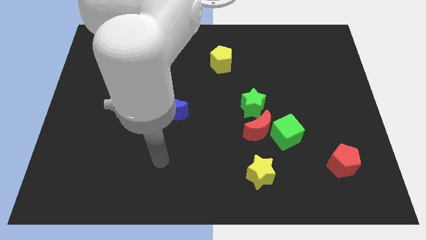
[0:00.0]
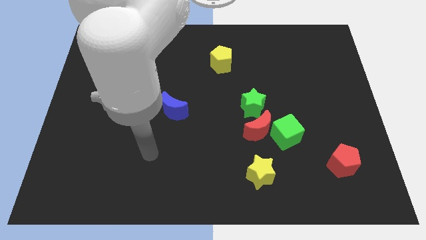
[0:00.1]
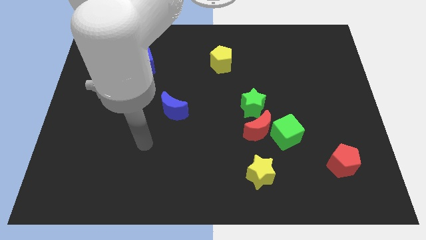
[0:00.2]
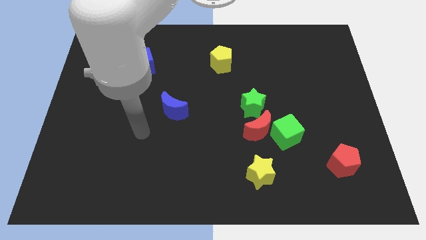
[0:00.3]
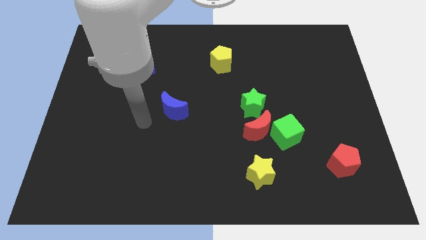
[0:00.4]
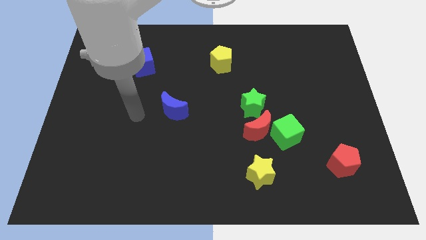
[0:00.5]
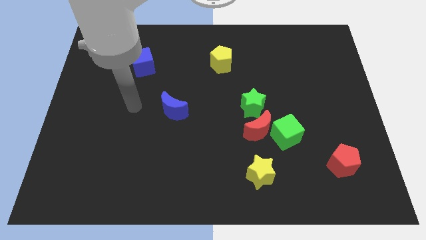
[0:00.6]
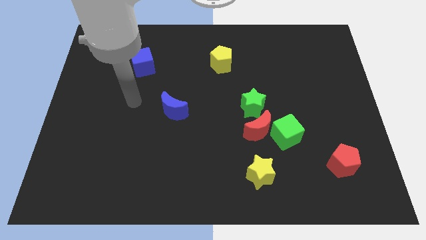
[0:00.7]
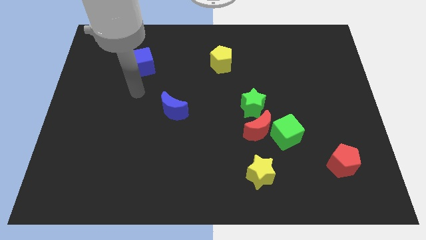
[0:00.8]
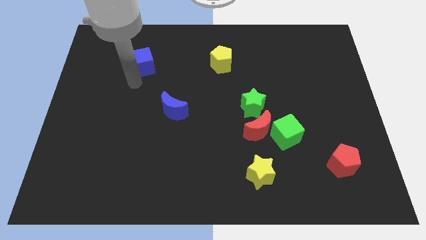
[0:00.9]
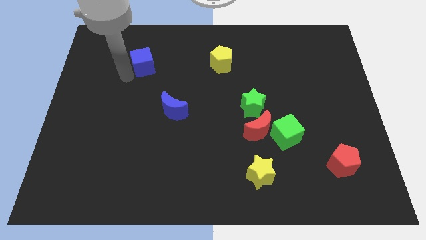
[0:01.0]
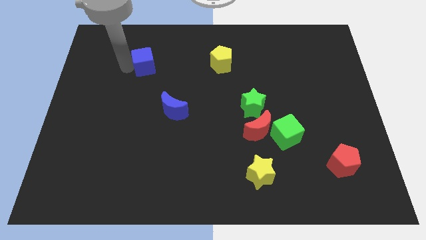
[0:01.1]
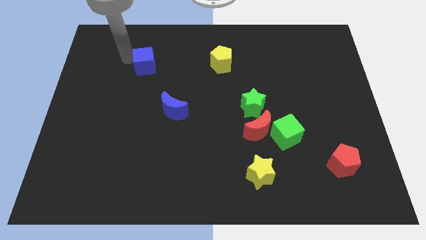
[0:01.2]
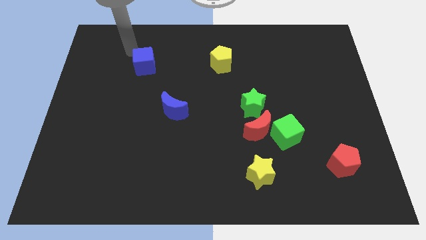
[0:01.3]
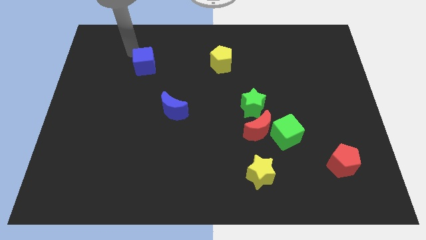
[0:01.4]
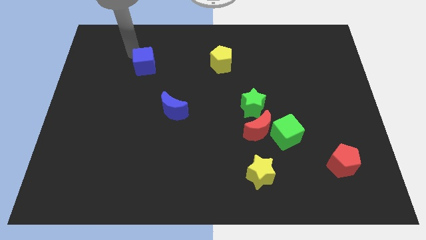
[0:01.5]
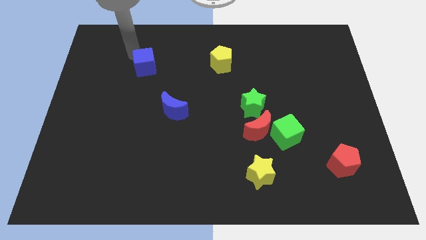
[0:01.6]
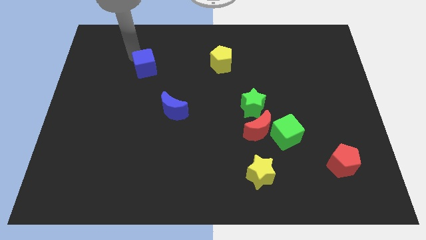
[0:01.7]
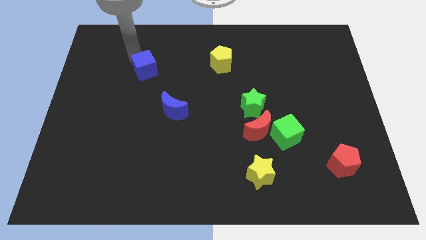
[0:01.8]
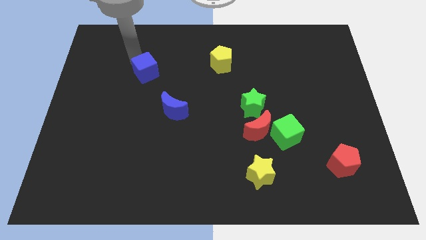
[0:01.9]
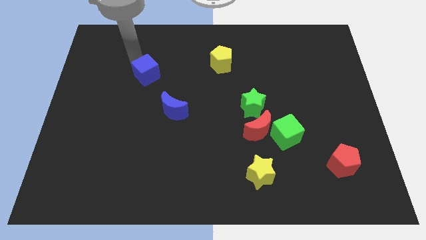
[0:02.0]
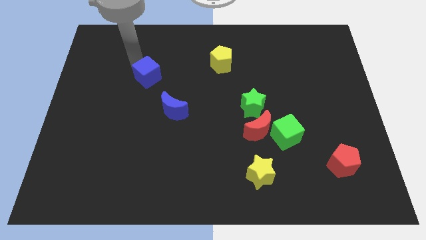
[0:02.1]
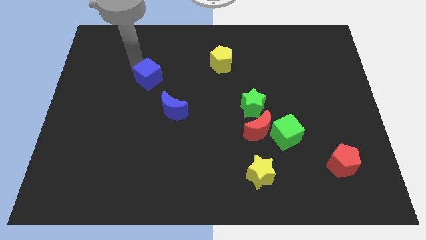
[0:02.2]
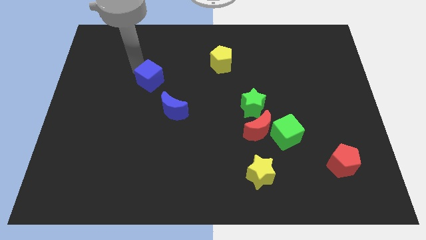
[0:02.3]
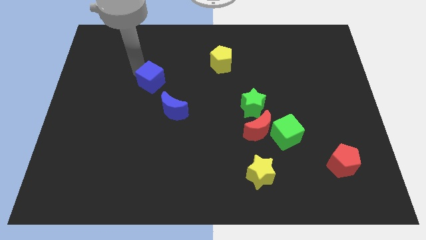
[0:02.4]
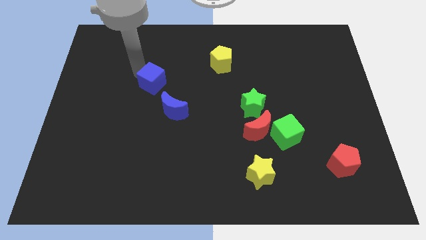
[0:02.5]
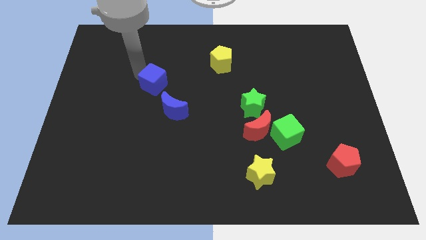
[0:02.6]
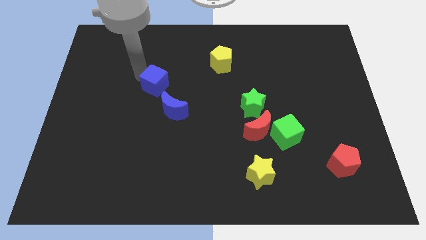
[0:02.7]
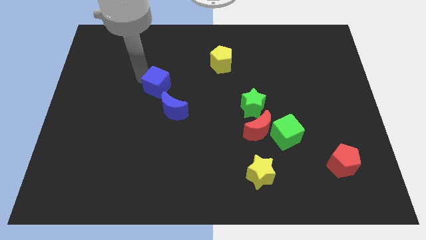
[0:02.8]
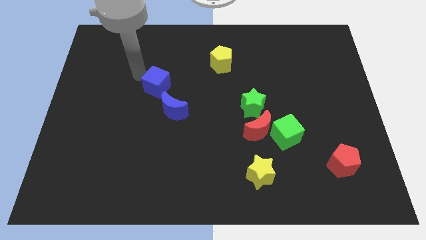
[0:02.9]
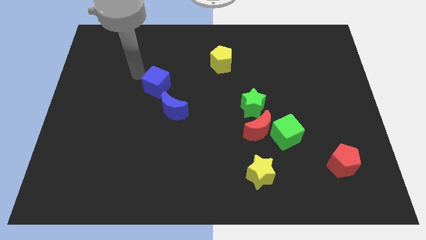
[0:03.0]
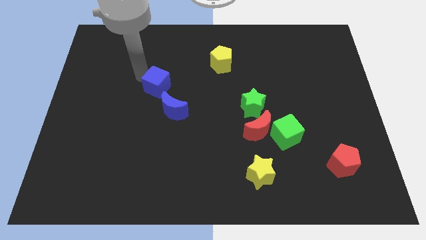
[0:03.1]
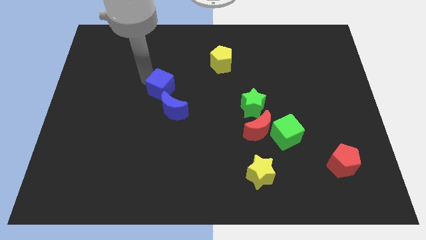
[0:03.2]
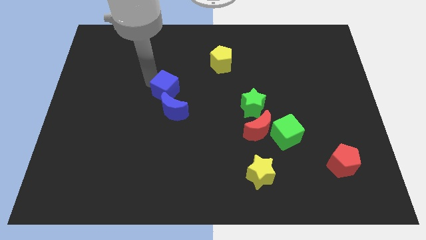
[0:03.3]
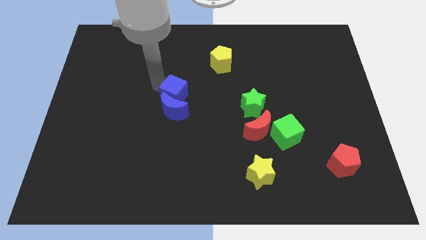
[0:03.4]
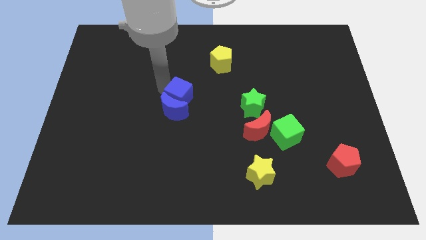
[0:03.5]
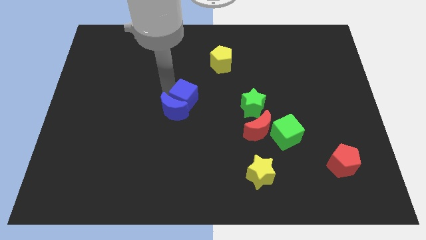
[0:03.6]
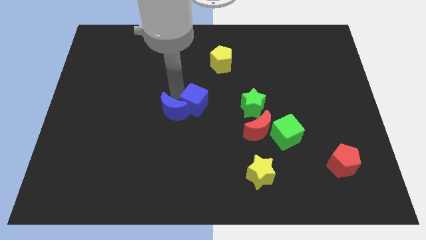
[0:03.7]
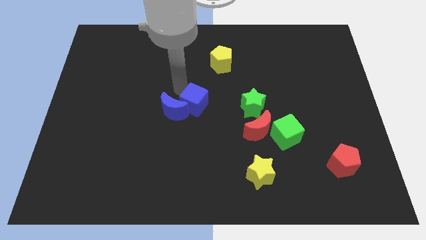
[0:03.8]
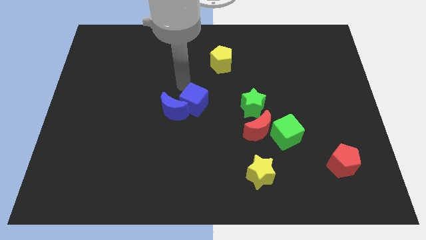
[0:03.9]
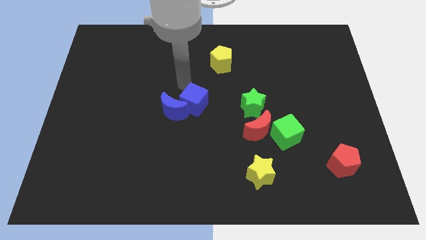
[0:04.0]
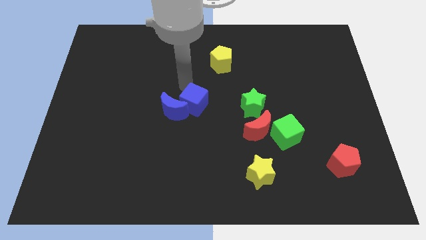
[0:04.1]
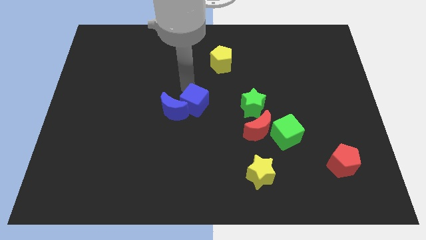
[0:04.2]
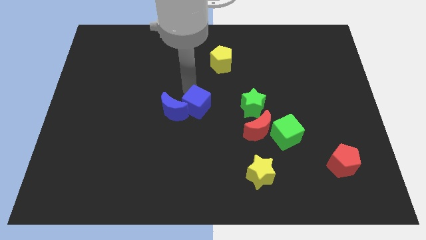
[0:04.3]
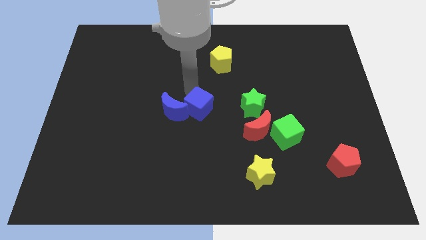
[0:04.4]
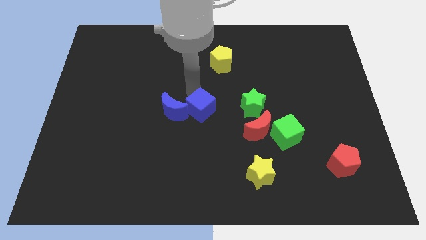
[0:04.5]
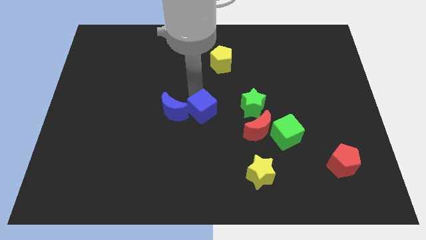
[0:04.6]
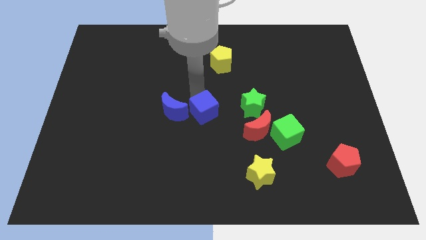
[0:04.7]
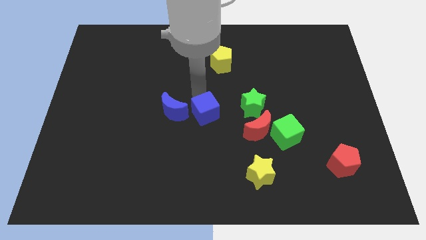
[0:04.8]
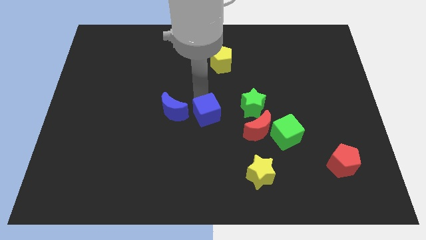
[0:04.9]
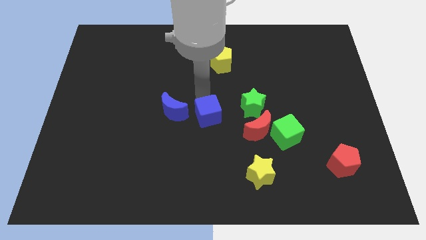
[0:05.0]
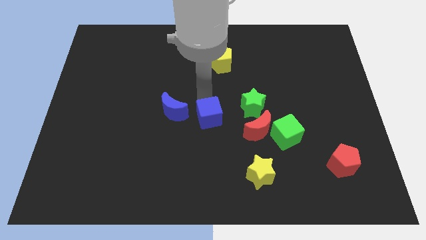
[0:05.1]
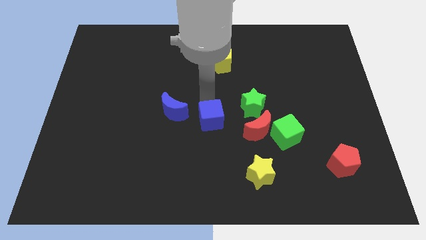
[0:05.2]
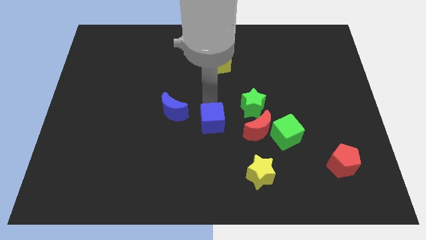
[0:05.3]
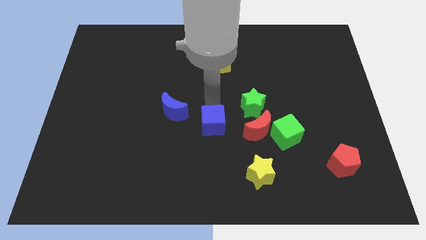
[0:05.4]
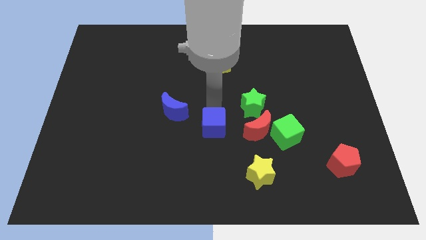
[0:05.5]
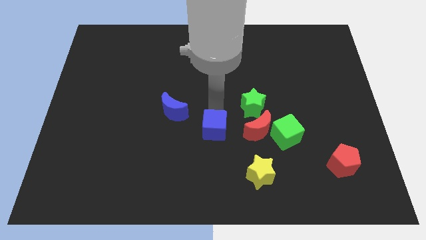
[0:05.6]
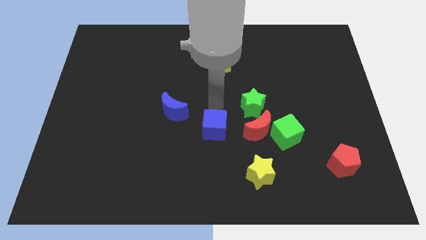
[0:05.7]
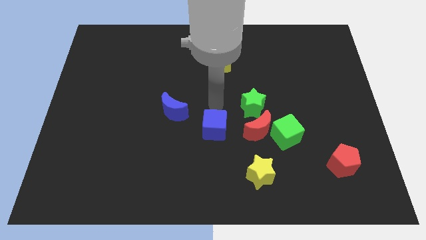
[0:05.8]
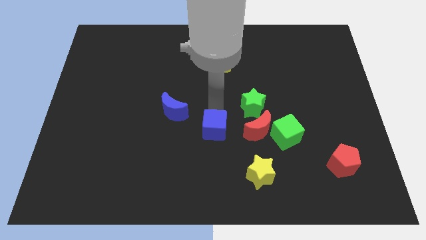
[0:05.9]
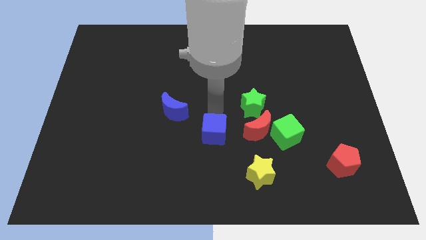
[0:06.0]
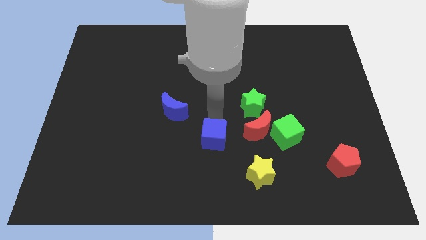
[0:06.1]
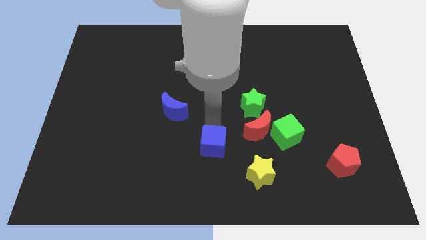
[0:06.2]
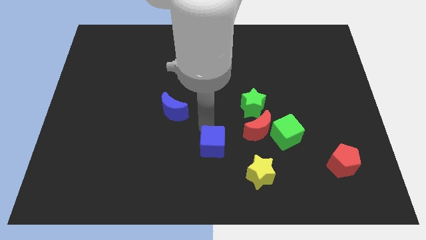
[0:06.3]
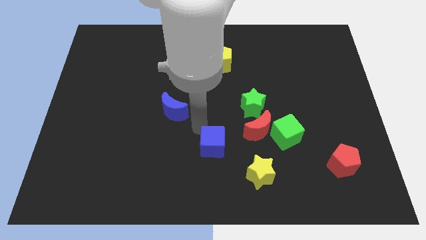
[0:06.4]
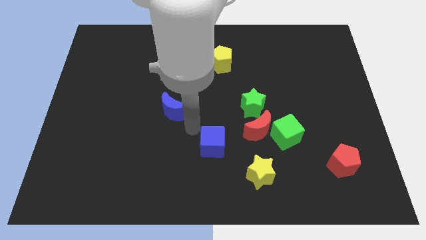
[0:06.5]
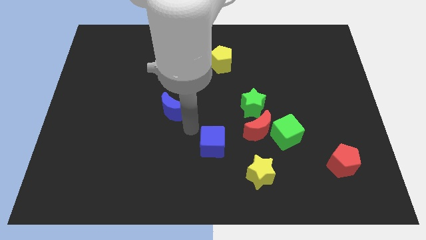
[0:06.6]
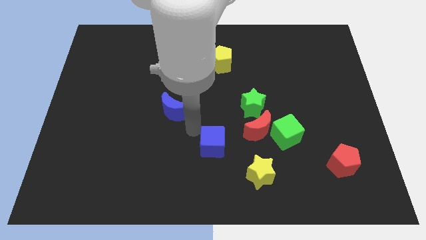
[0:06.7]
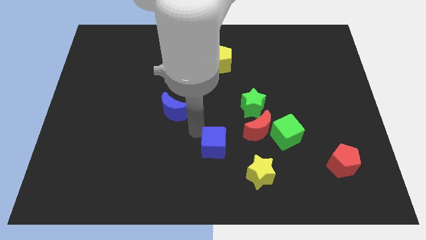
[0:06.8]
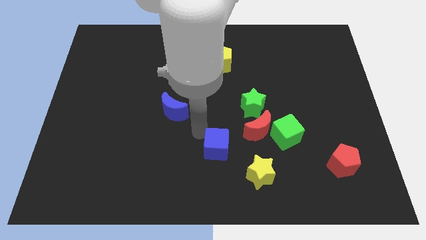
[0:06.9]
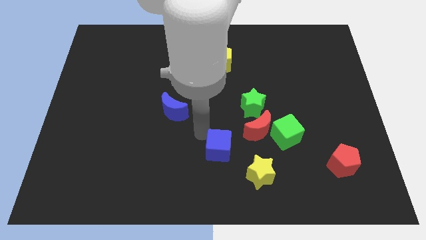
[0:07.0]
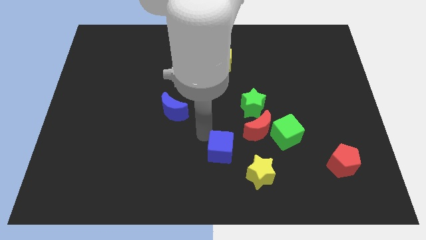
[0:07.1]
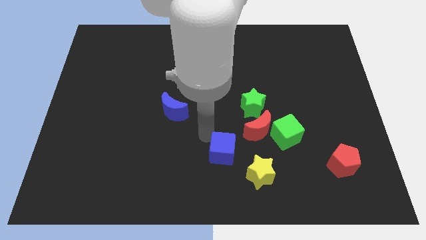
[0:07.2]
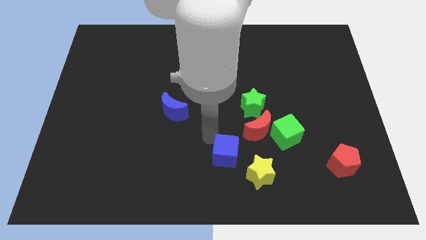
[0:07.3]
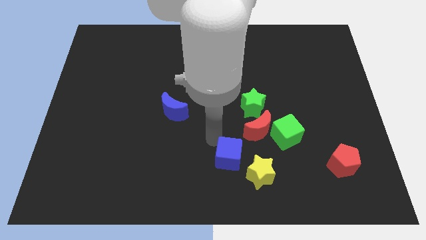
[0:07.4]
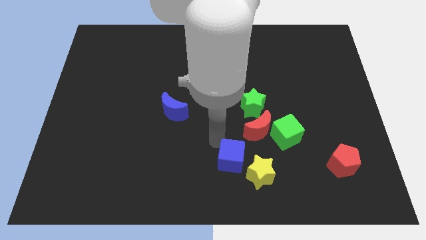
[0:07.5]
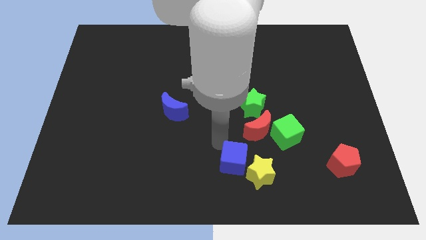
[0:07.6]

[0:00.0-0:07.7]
push the blue cube next to the yellow star
